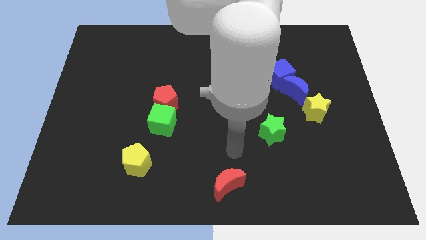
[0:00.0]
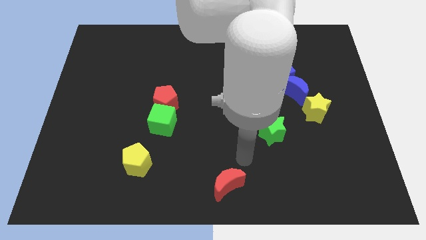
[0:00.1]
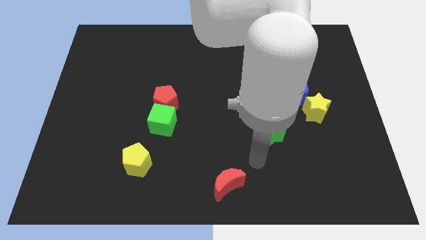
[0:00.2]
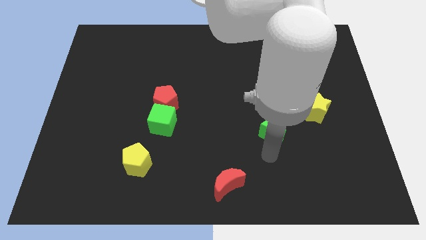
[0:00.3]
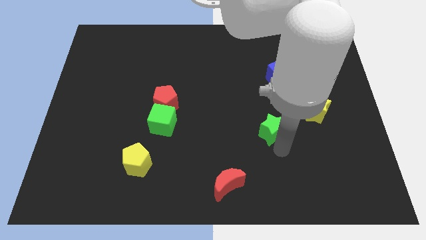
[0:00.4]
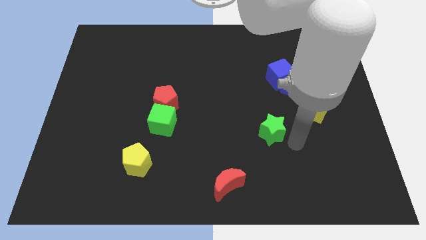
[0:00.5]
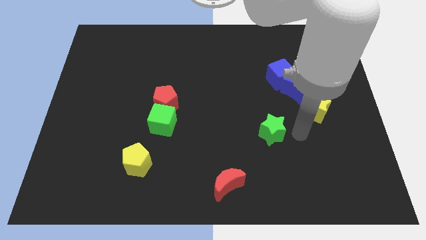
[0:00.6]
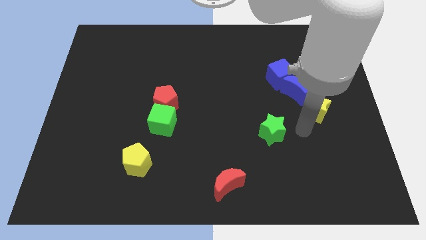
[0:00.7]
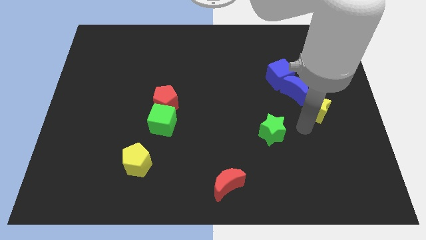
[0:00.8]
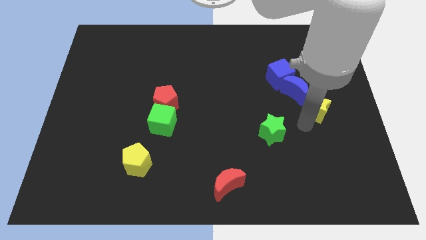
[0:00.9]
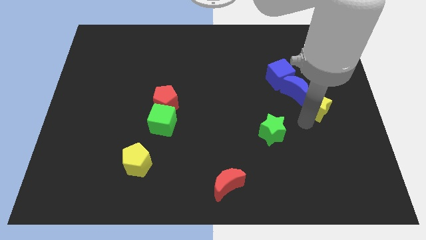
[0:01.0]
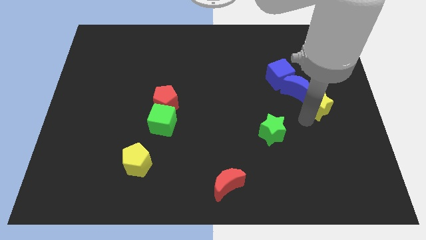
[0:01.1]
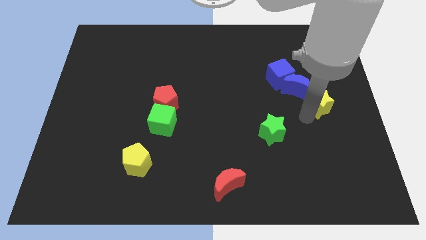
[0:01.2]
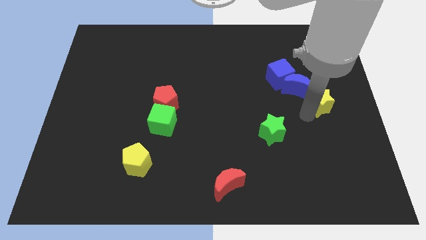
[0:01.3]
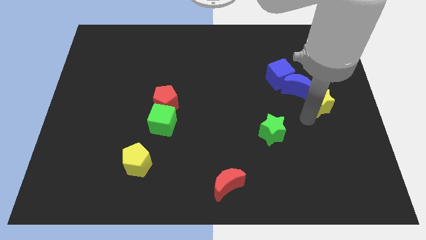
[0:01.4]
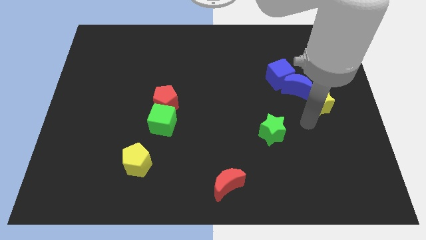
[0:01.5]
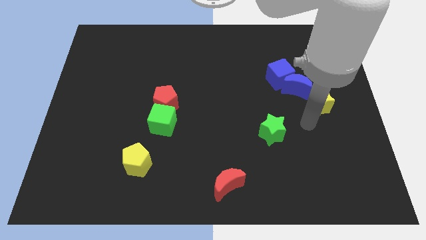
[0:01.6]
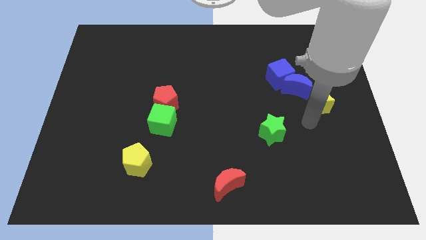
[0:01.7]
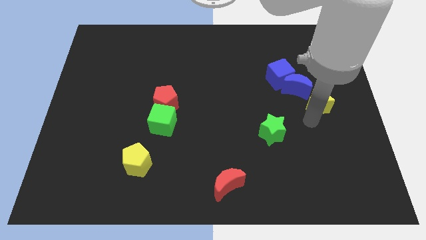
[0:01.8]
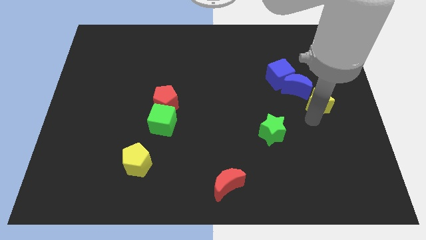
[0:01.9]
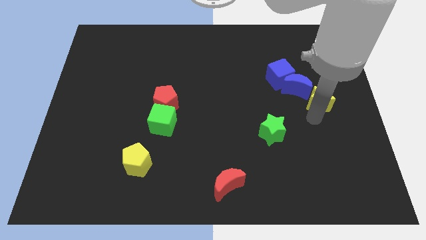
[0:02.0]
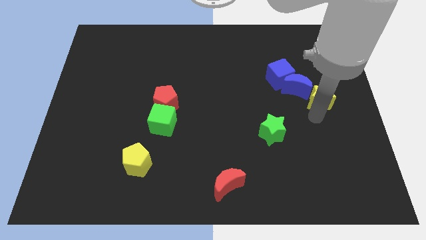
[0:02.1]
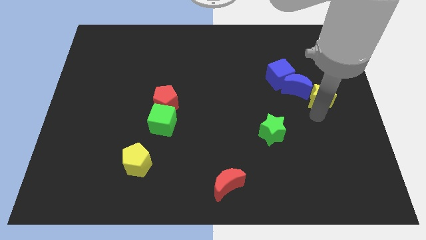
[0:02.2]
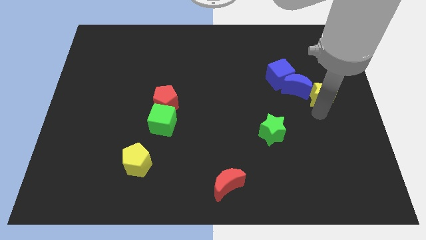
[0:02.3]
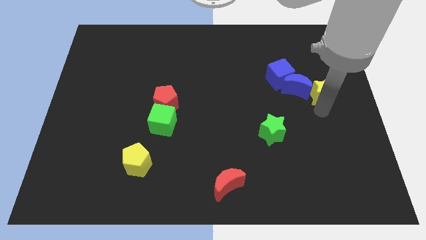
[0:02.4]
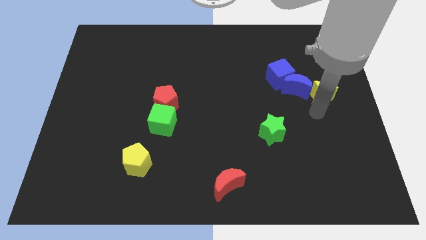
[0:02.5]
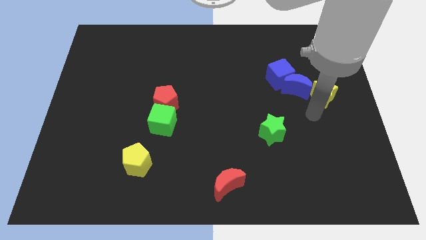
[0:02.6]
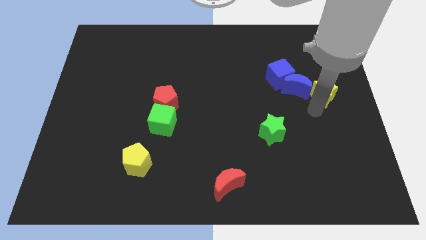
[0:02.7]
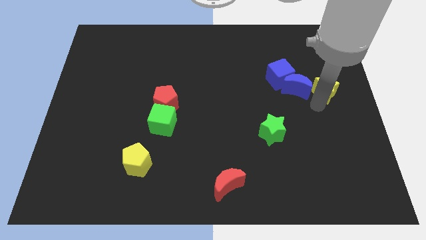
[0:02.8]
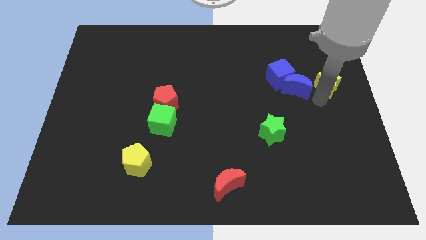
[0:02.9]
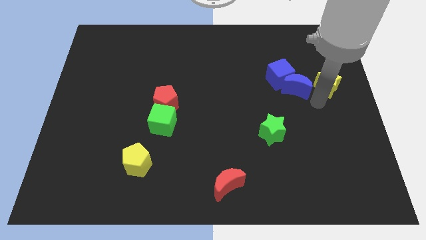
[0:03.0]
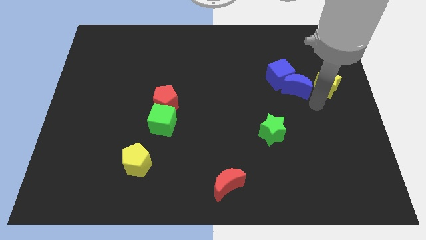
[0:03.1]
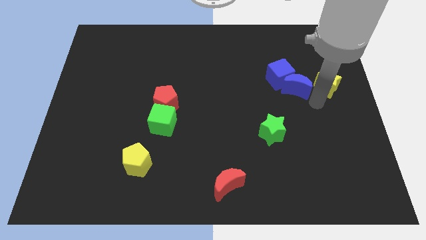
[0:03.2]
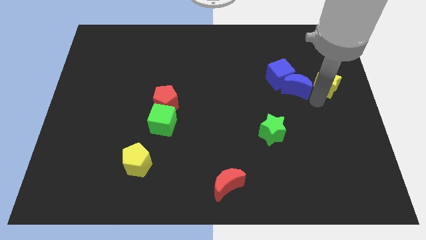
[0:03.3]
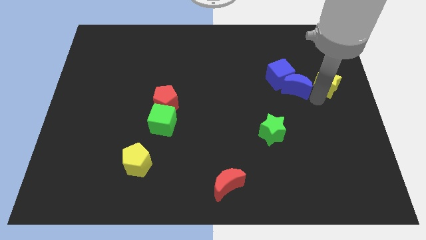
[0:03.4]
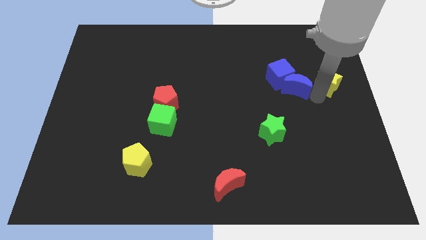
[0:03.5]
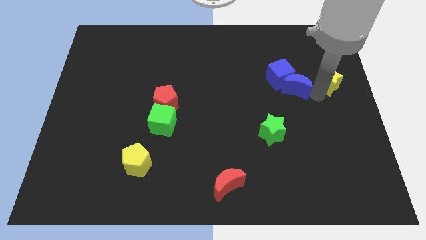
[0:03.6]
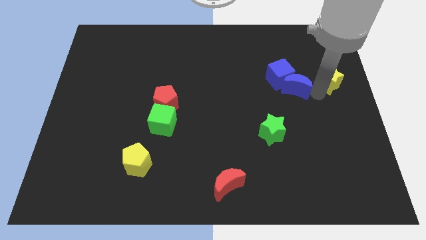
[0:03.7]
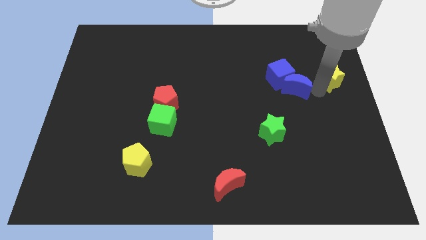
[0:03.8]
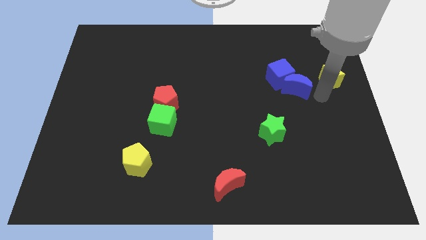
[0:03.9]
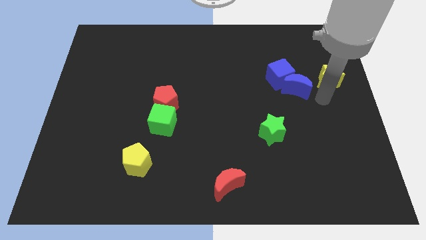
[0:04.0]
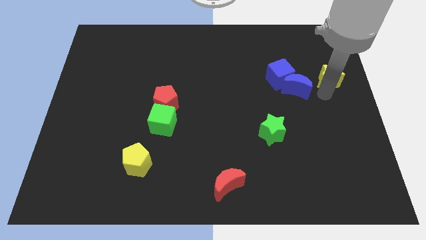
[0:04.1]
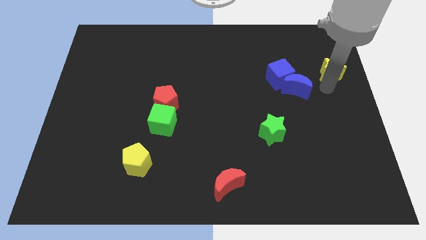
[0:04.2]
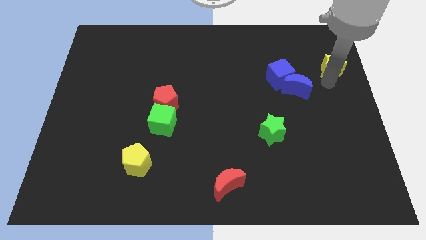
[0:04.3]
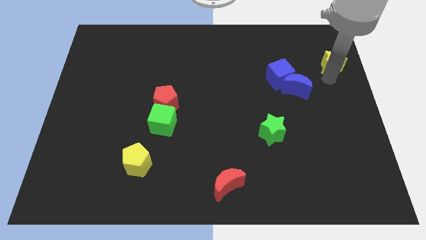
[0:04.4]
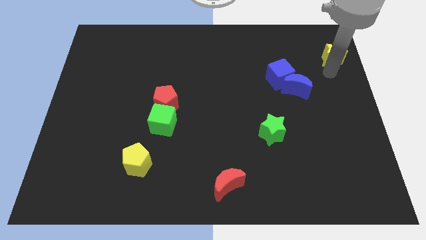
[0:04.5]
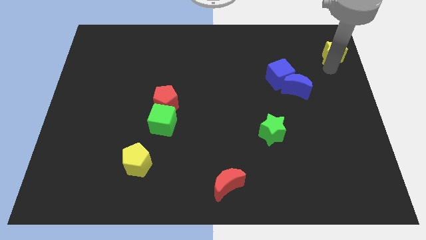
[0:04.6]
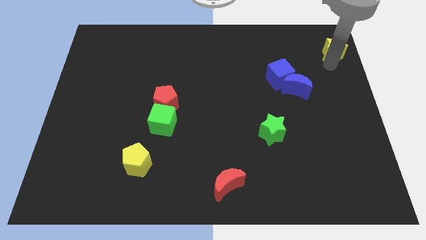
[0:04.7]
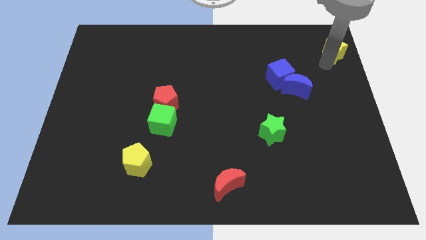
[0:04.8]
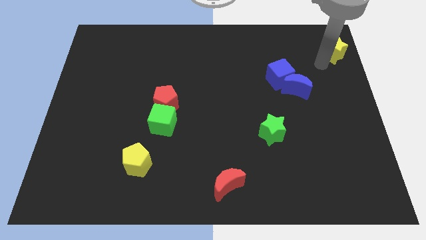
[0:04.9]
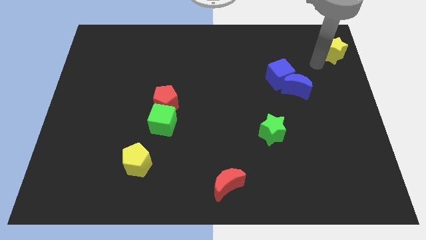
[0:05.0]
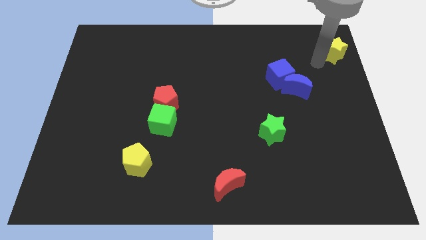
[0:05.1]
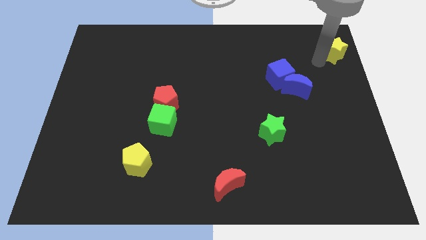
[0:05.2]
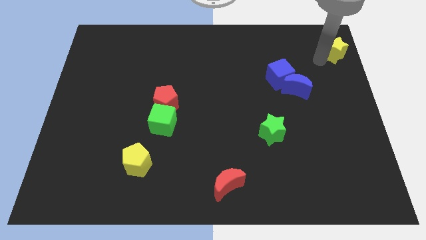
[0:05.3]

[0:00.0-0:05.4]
push the yellow star to the top right corner
